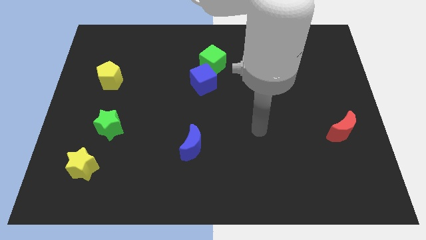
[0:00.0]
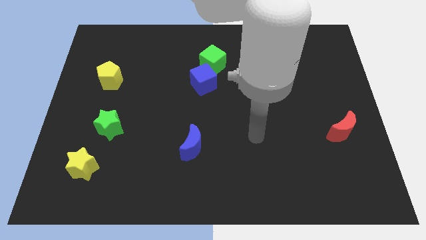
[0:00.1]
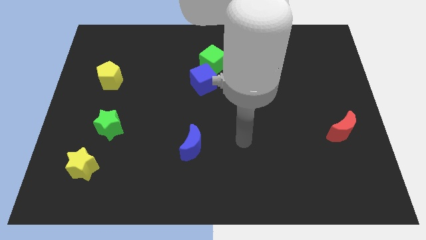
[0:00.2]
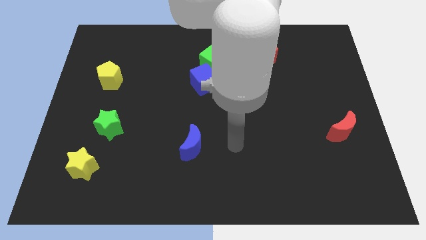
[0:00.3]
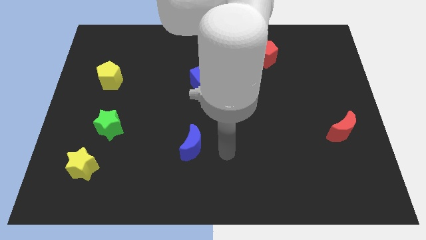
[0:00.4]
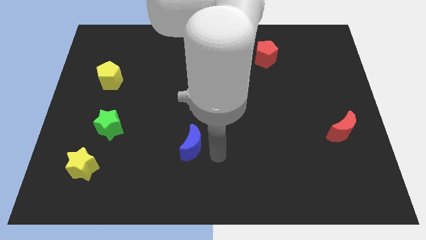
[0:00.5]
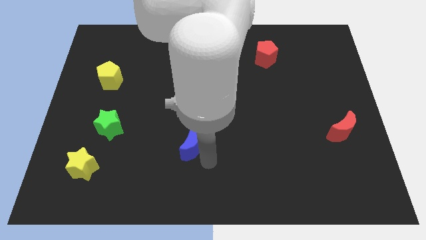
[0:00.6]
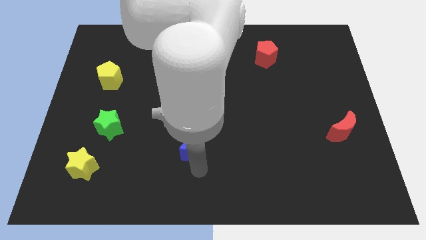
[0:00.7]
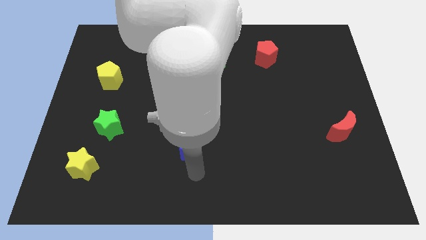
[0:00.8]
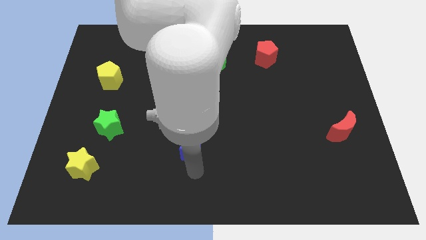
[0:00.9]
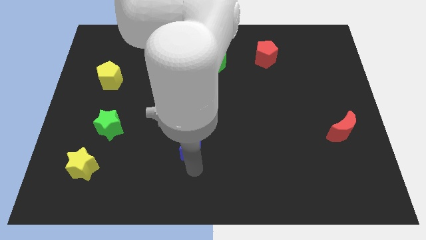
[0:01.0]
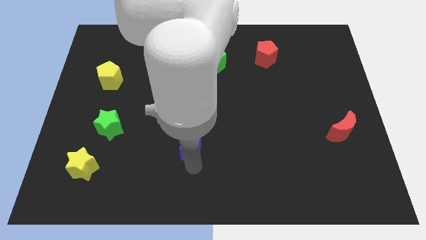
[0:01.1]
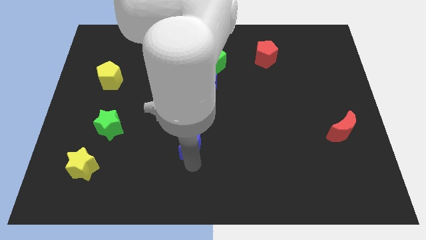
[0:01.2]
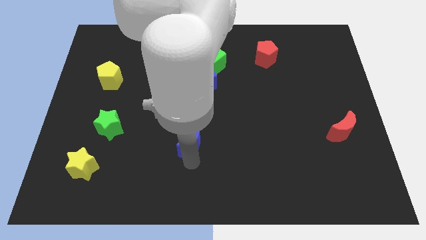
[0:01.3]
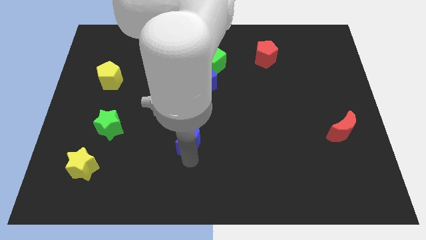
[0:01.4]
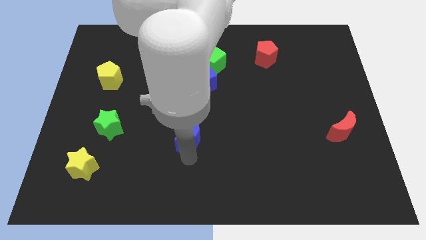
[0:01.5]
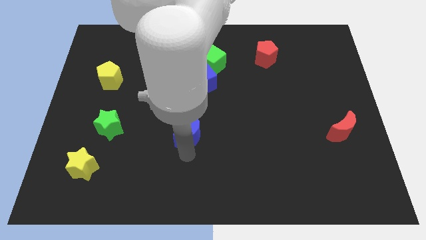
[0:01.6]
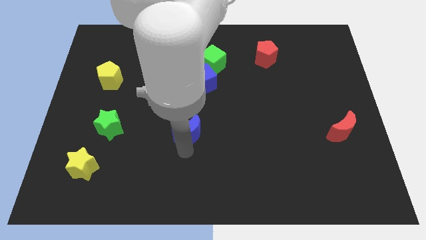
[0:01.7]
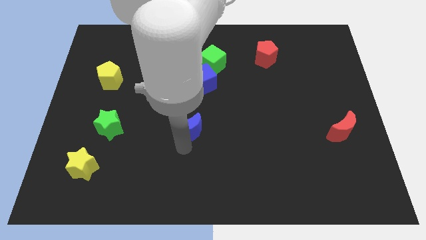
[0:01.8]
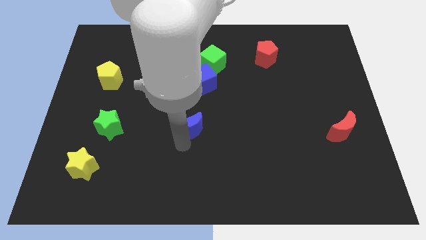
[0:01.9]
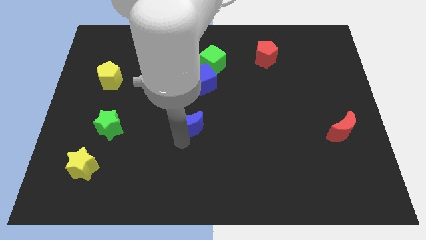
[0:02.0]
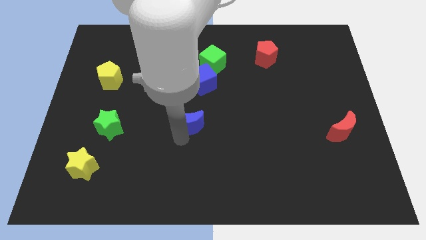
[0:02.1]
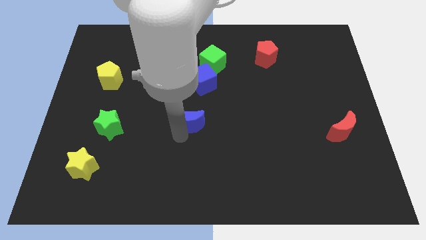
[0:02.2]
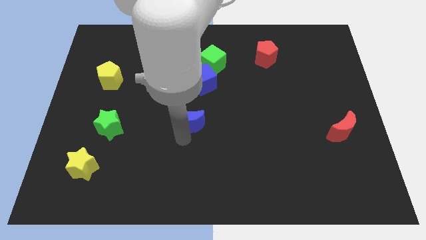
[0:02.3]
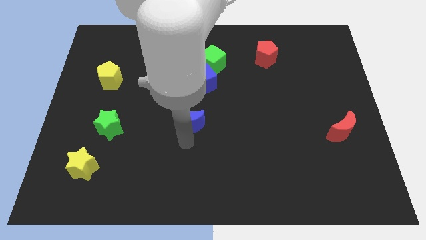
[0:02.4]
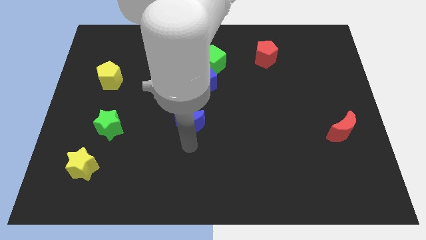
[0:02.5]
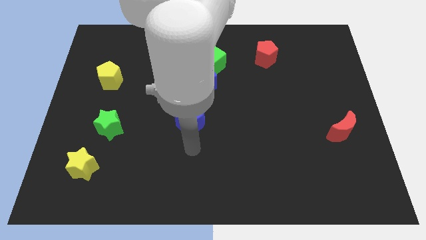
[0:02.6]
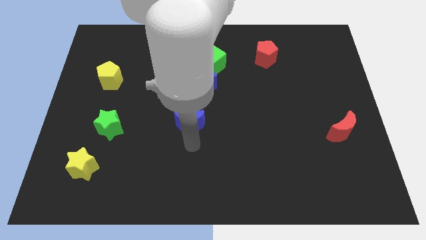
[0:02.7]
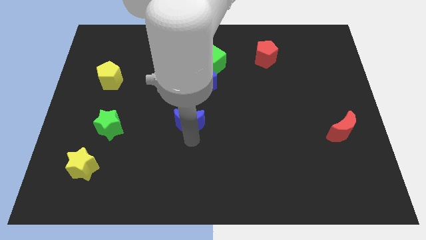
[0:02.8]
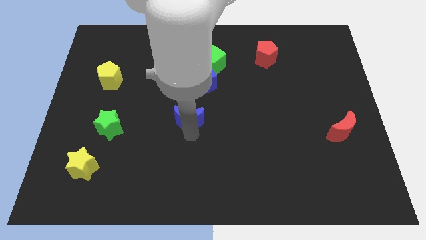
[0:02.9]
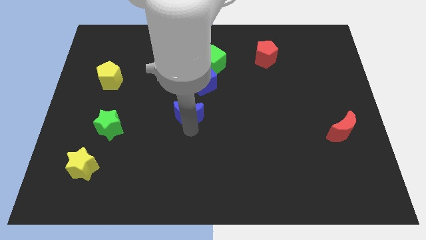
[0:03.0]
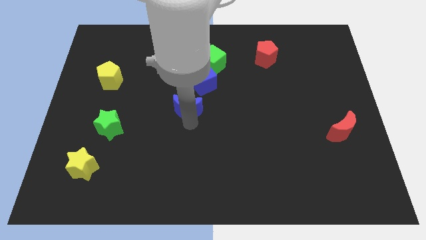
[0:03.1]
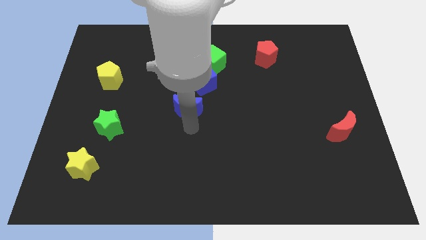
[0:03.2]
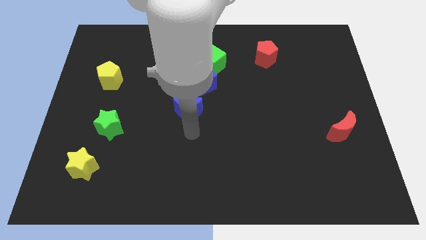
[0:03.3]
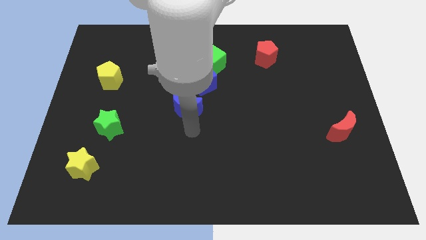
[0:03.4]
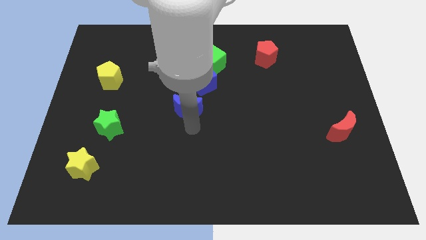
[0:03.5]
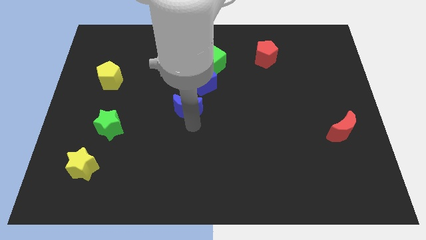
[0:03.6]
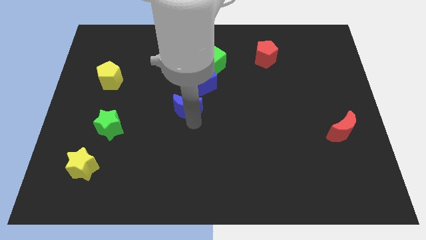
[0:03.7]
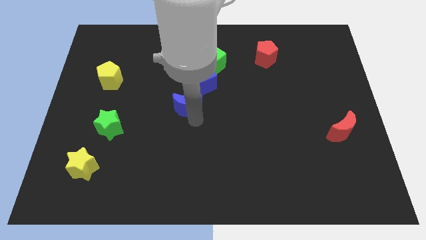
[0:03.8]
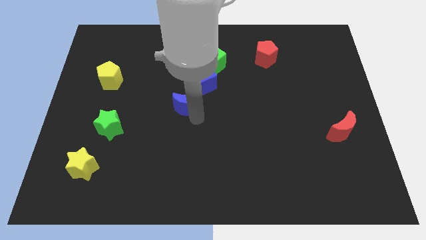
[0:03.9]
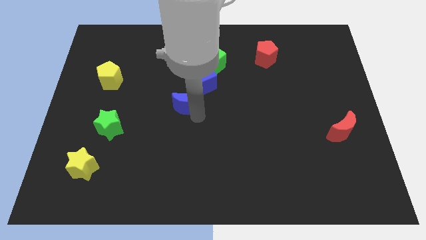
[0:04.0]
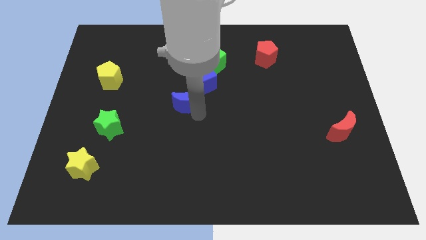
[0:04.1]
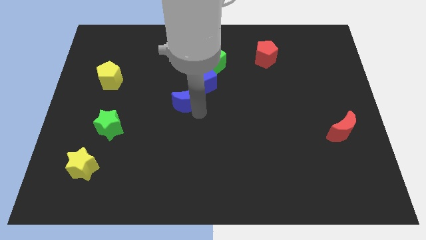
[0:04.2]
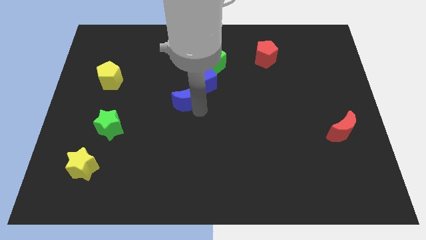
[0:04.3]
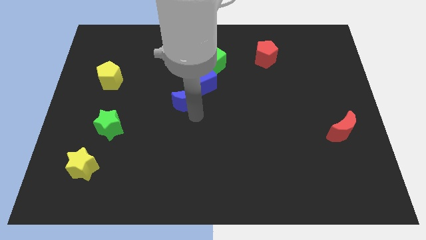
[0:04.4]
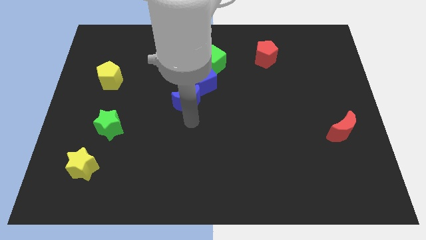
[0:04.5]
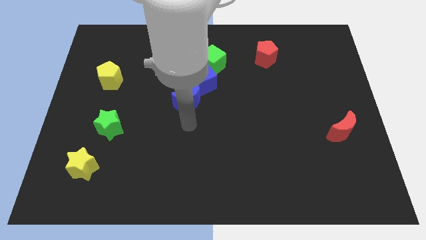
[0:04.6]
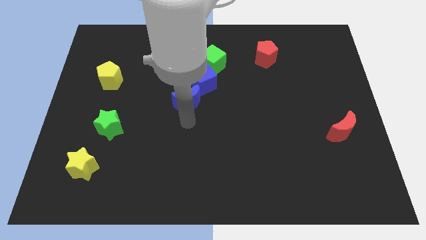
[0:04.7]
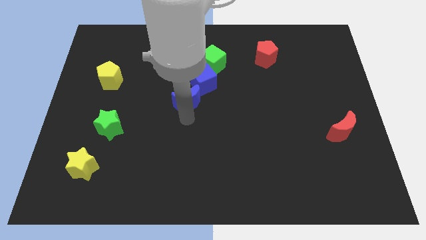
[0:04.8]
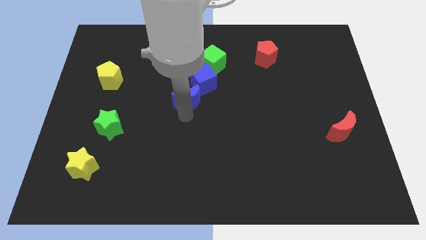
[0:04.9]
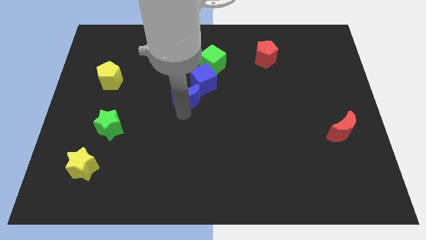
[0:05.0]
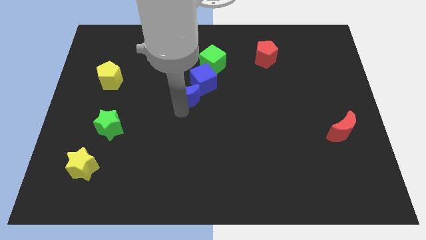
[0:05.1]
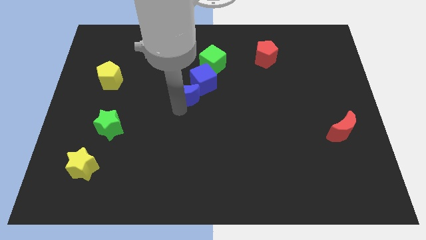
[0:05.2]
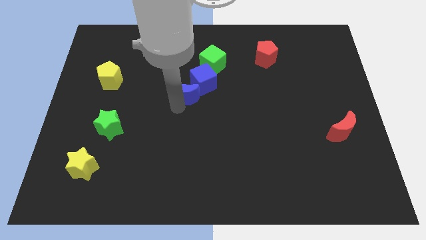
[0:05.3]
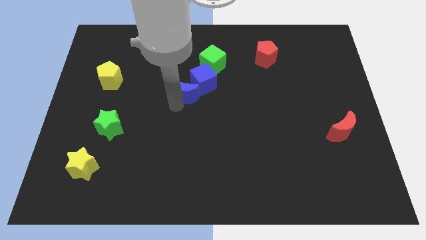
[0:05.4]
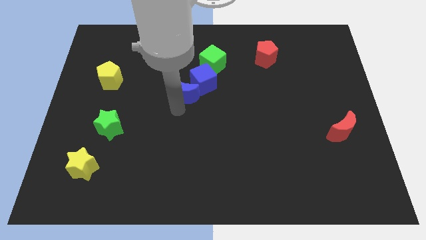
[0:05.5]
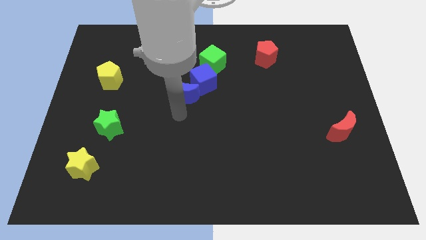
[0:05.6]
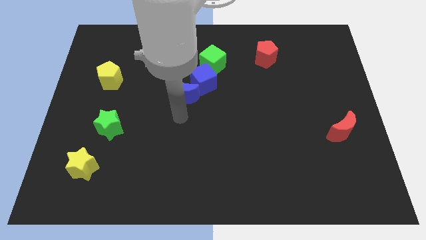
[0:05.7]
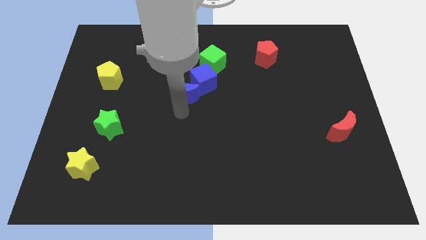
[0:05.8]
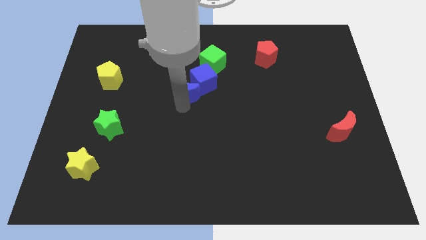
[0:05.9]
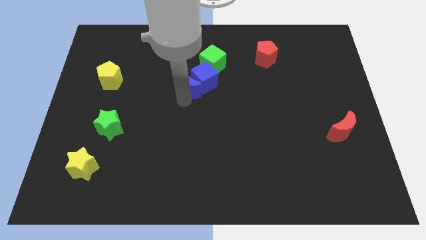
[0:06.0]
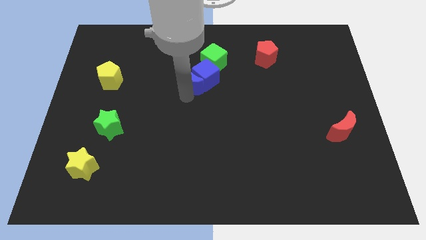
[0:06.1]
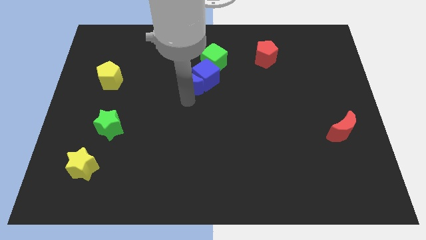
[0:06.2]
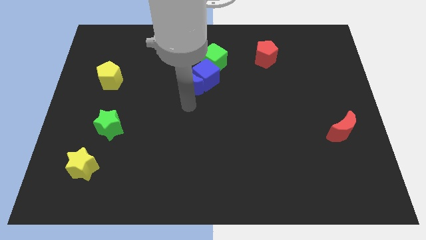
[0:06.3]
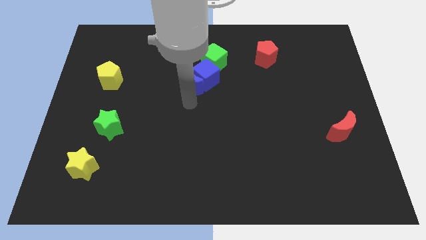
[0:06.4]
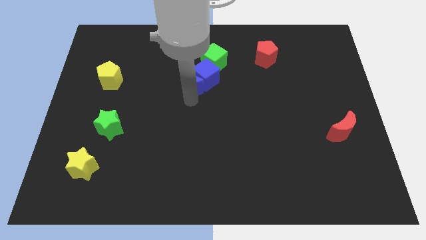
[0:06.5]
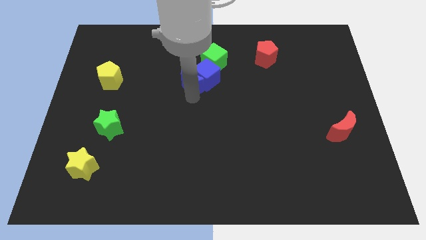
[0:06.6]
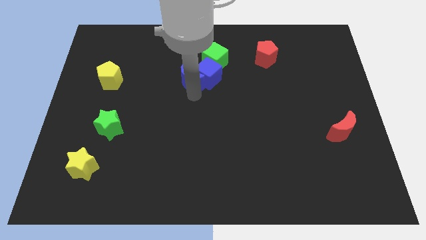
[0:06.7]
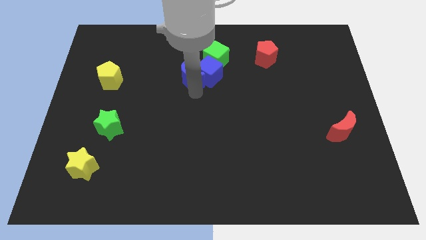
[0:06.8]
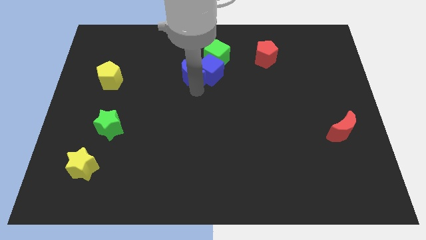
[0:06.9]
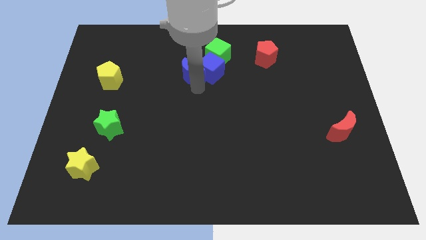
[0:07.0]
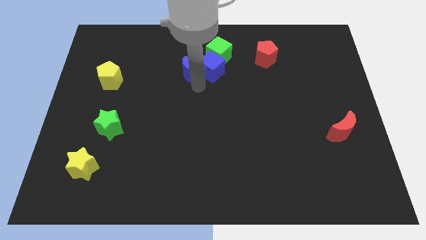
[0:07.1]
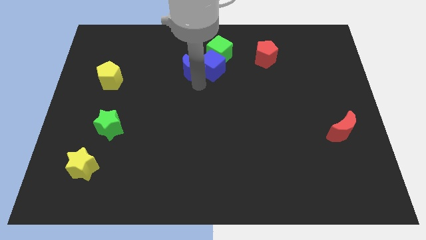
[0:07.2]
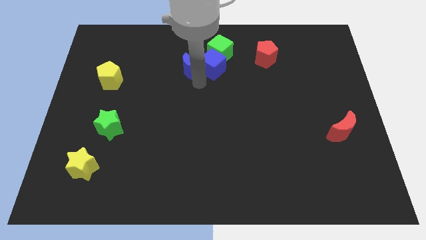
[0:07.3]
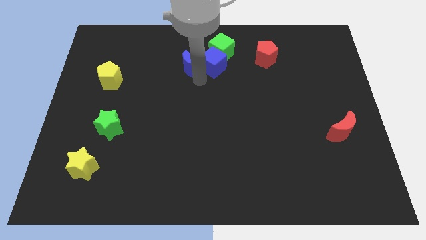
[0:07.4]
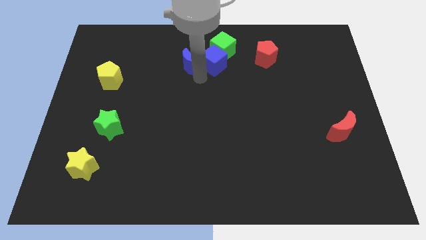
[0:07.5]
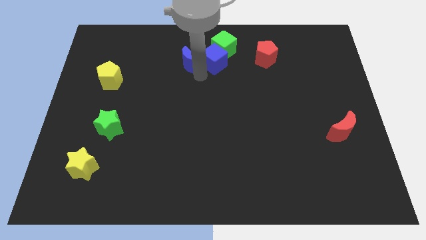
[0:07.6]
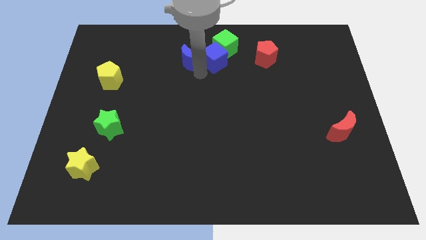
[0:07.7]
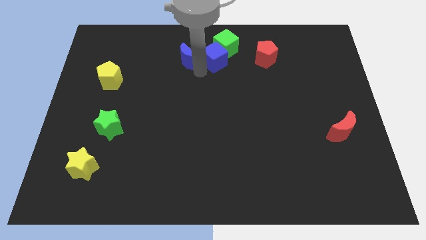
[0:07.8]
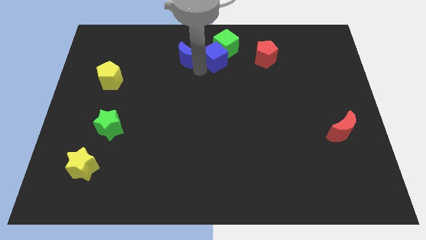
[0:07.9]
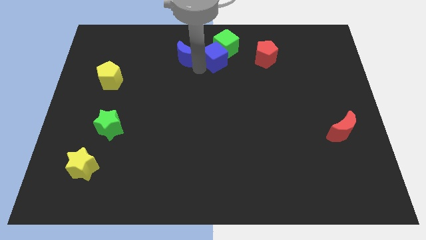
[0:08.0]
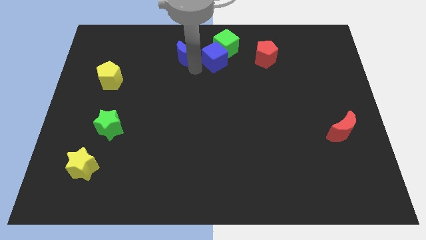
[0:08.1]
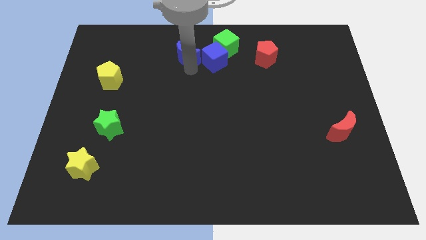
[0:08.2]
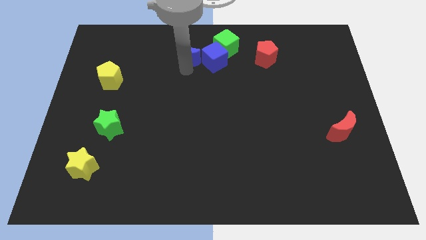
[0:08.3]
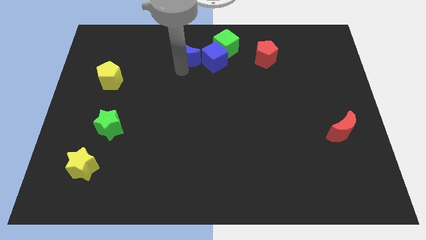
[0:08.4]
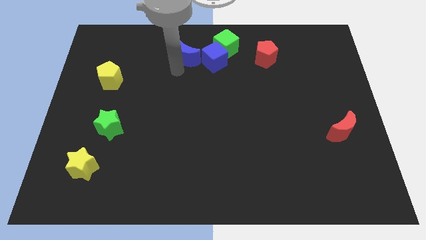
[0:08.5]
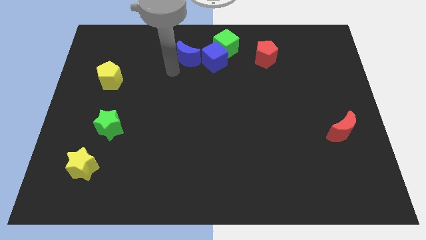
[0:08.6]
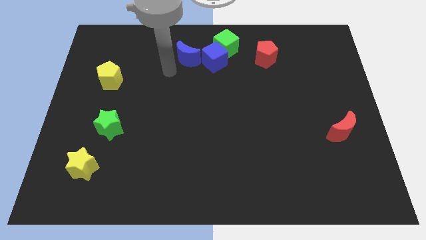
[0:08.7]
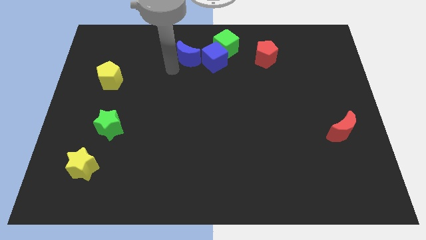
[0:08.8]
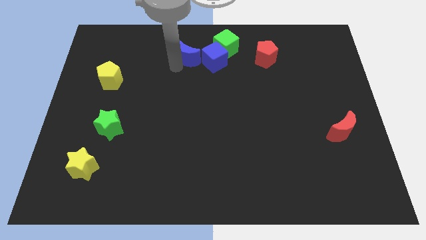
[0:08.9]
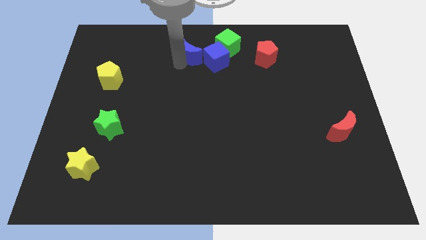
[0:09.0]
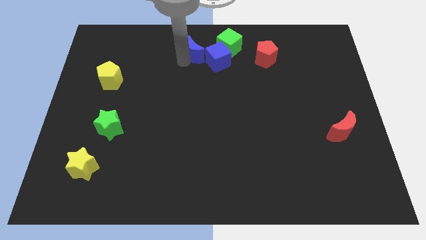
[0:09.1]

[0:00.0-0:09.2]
slide the blue moon to the towards your base
